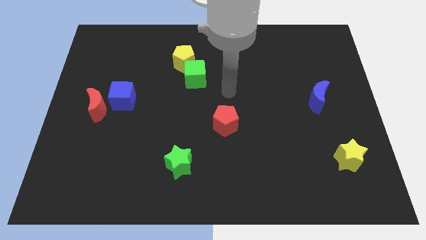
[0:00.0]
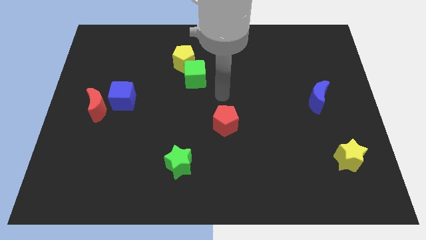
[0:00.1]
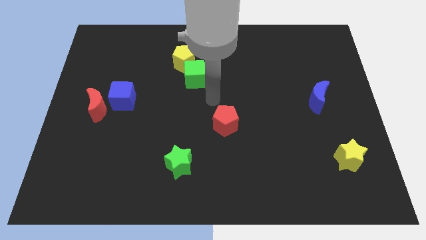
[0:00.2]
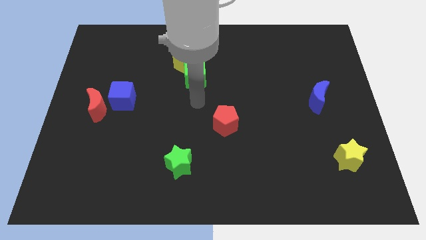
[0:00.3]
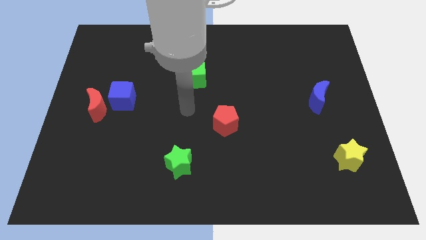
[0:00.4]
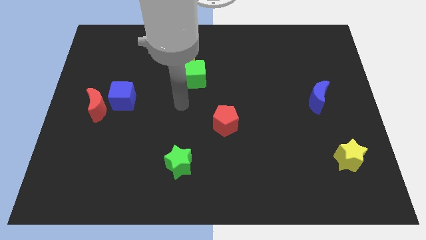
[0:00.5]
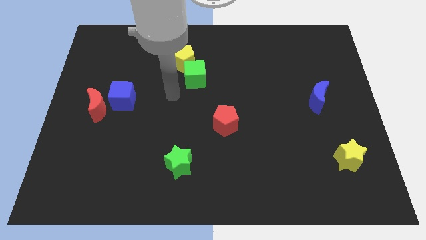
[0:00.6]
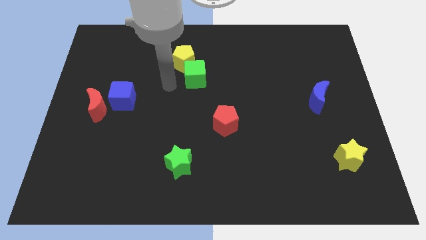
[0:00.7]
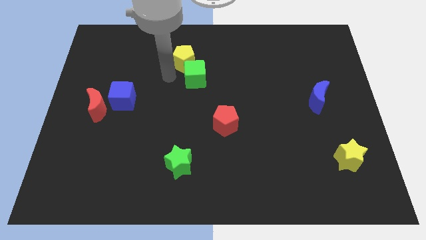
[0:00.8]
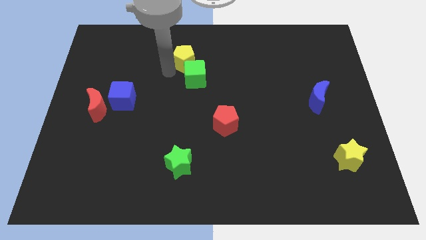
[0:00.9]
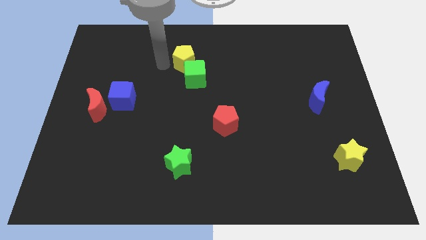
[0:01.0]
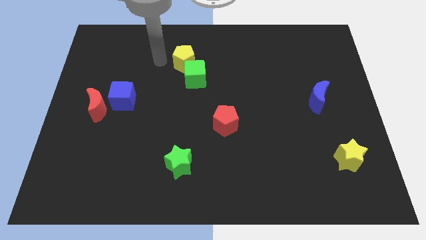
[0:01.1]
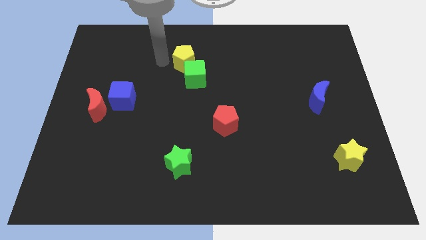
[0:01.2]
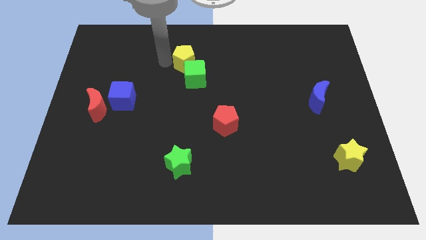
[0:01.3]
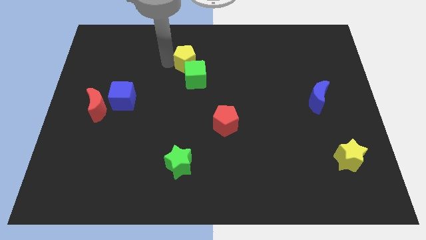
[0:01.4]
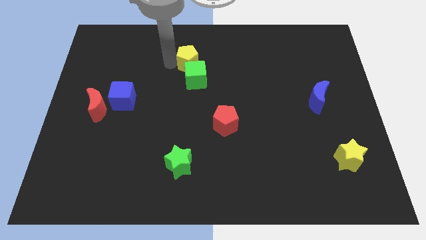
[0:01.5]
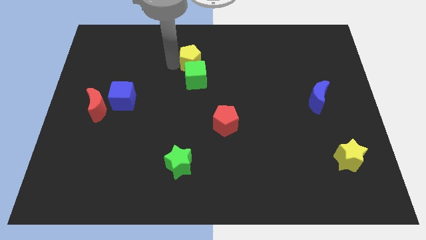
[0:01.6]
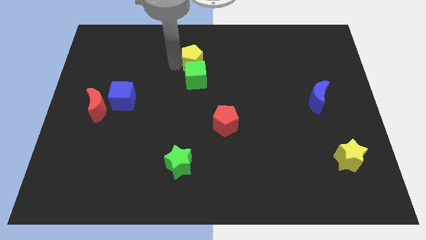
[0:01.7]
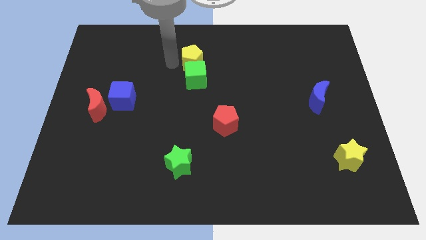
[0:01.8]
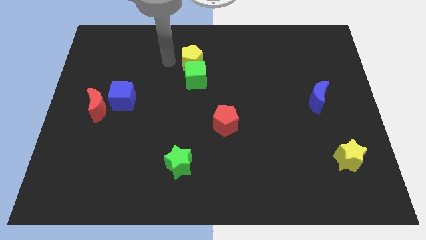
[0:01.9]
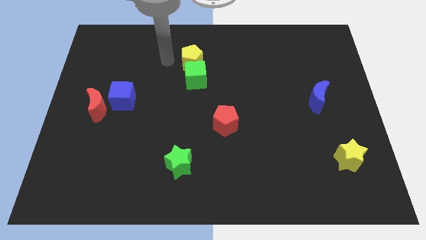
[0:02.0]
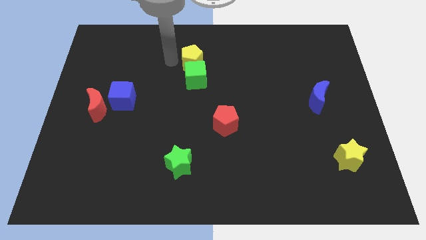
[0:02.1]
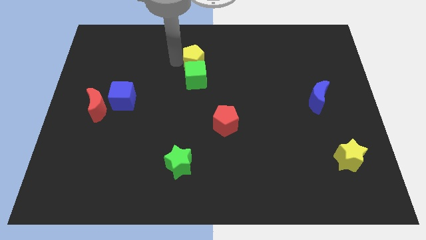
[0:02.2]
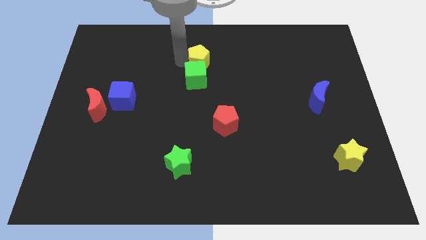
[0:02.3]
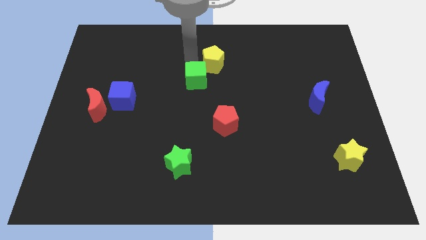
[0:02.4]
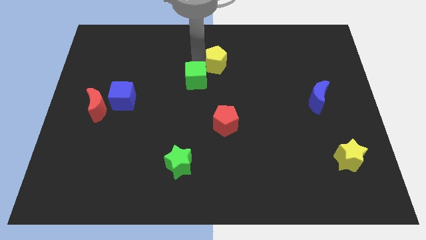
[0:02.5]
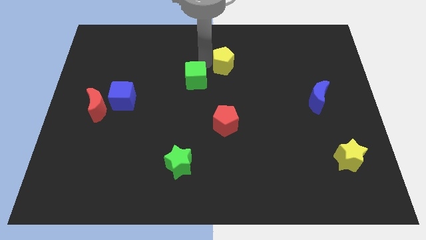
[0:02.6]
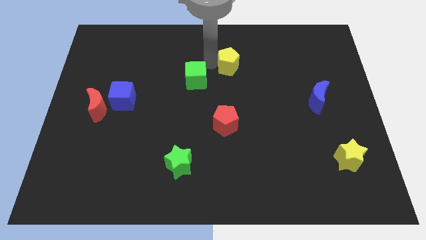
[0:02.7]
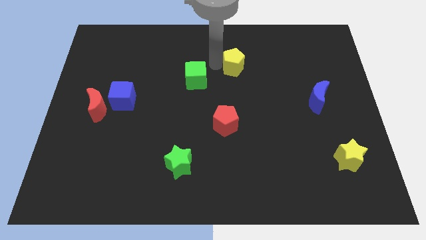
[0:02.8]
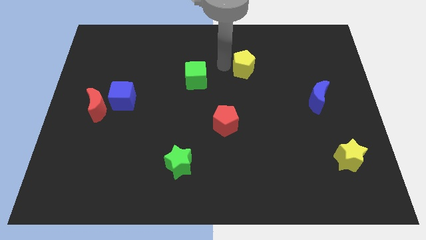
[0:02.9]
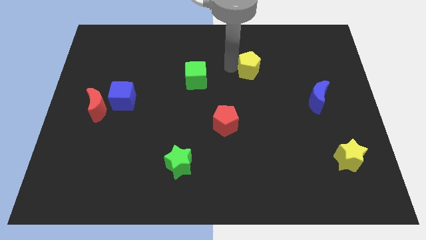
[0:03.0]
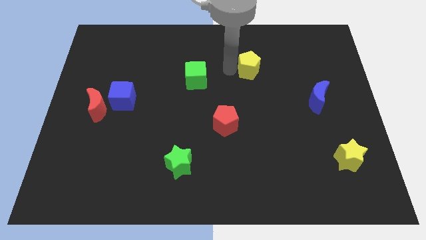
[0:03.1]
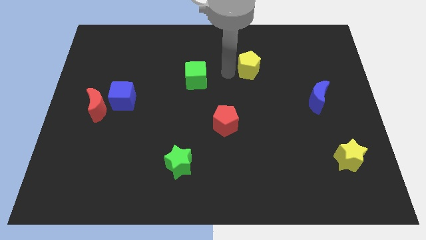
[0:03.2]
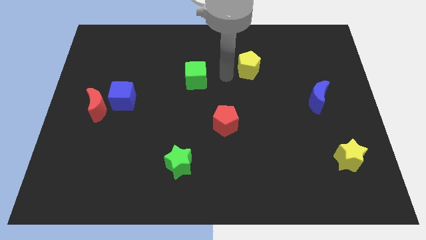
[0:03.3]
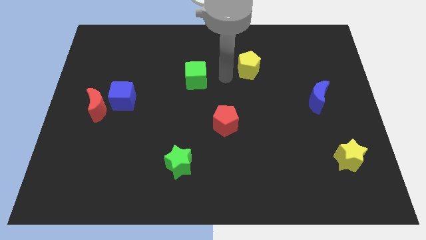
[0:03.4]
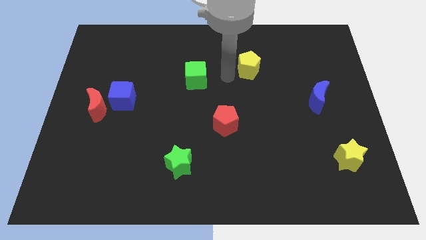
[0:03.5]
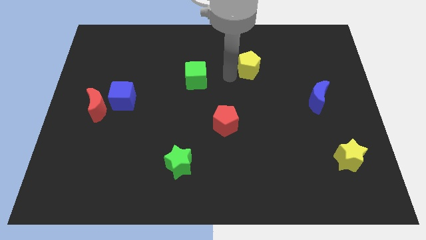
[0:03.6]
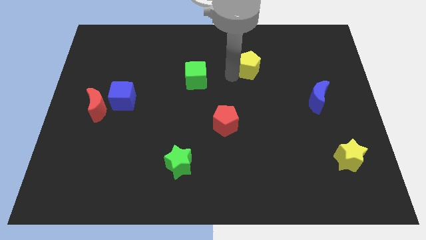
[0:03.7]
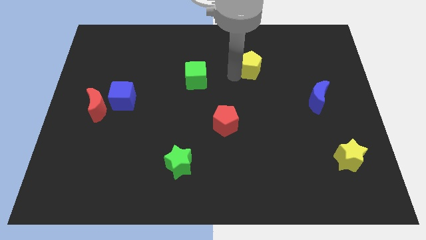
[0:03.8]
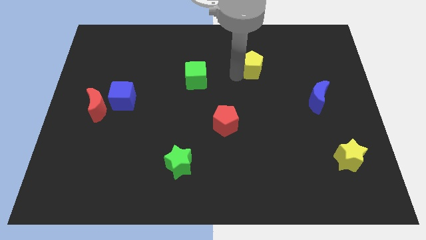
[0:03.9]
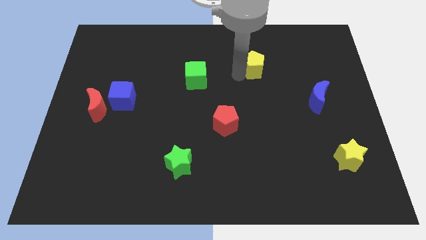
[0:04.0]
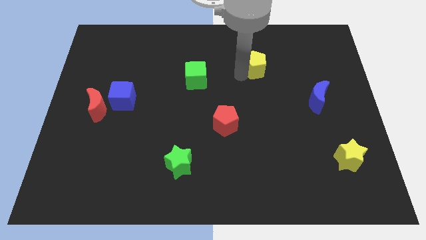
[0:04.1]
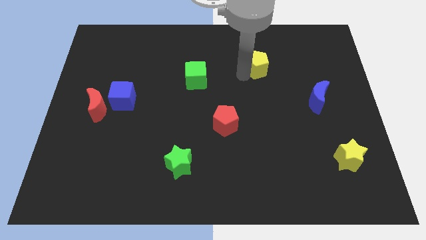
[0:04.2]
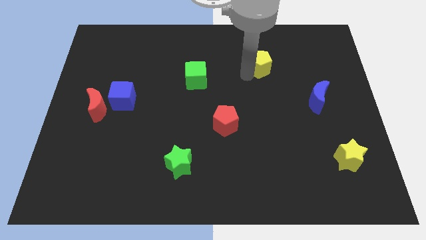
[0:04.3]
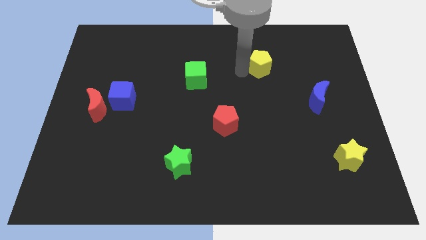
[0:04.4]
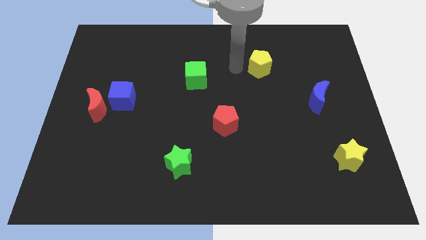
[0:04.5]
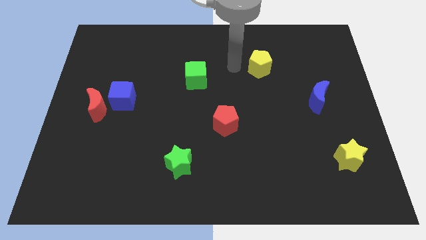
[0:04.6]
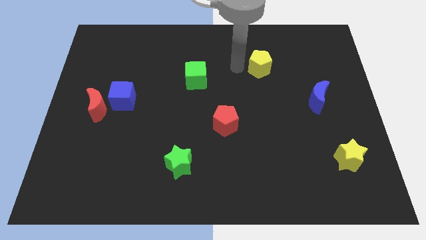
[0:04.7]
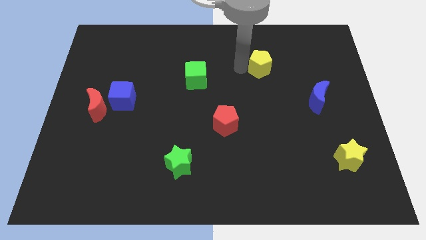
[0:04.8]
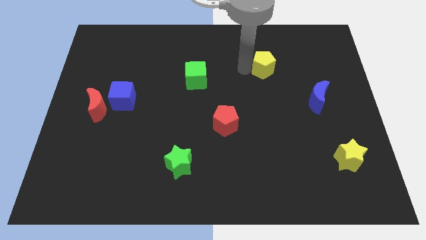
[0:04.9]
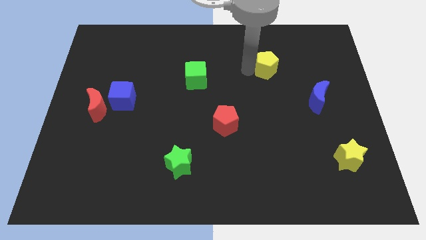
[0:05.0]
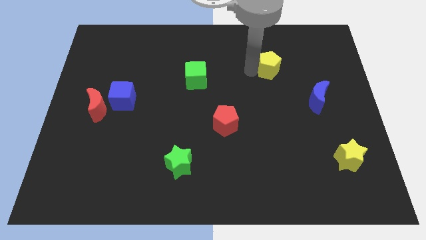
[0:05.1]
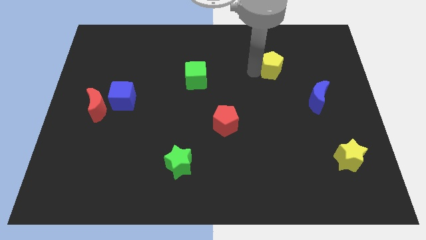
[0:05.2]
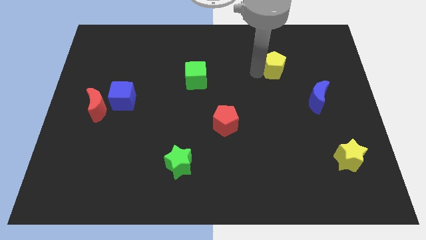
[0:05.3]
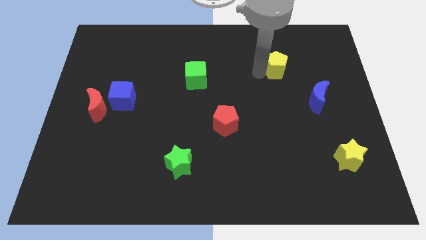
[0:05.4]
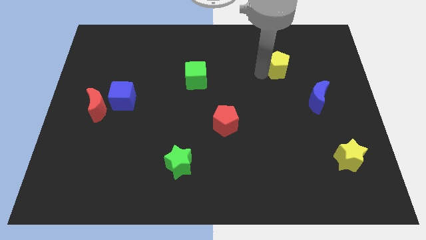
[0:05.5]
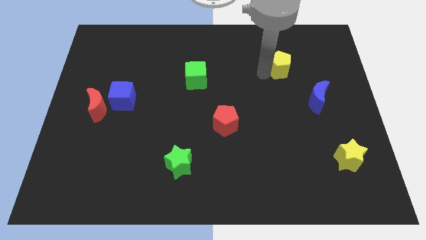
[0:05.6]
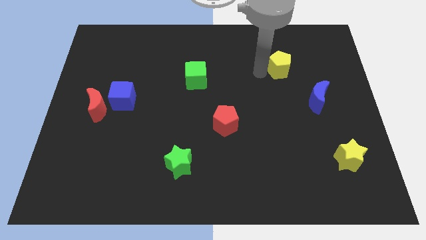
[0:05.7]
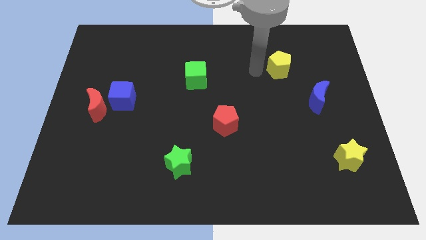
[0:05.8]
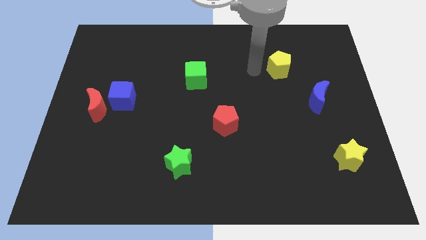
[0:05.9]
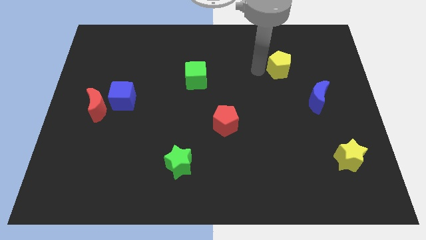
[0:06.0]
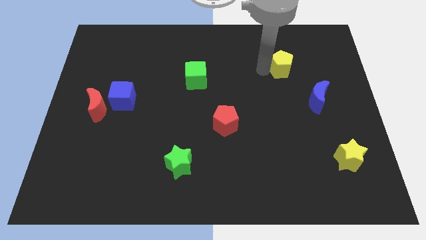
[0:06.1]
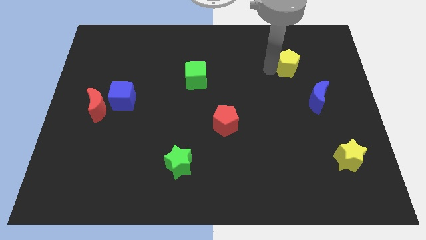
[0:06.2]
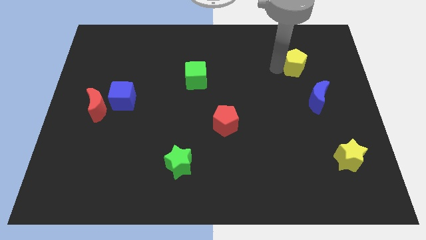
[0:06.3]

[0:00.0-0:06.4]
move the yellow pentagon to the top side of the blue moon

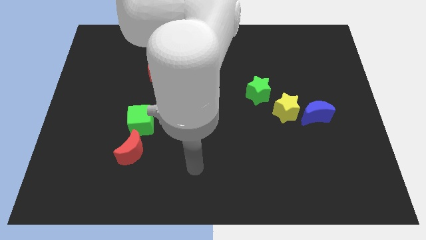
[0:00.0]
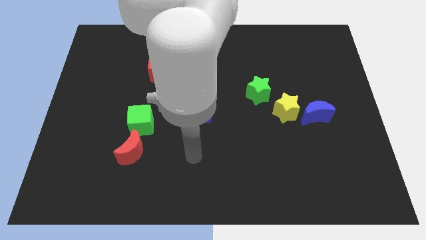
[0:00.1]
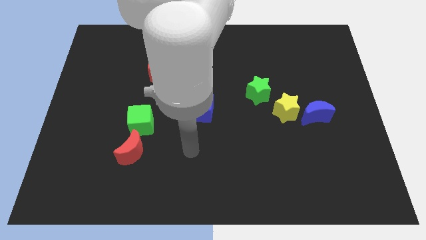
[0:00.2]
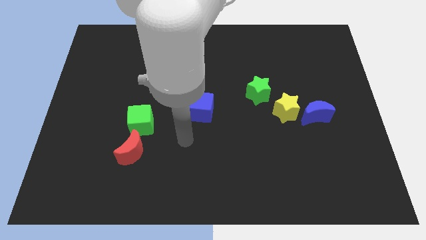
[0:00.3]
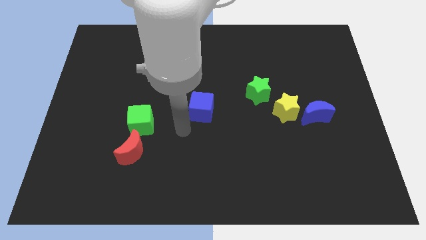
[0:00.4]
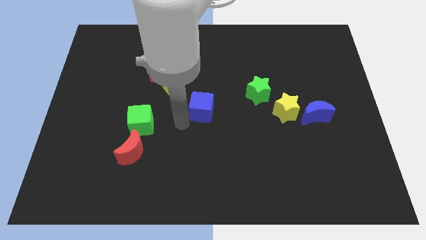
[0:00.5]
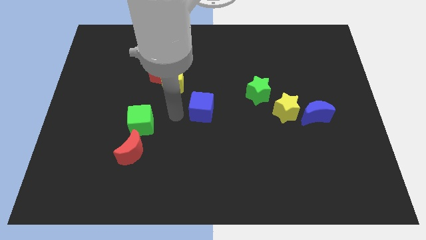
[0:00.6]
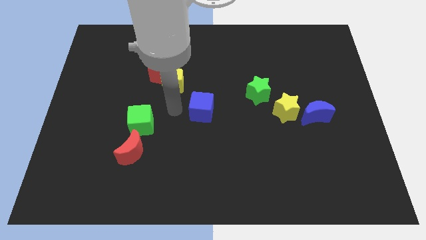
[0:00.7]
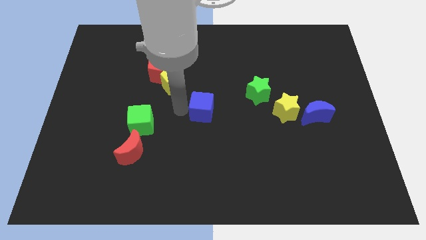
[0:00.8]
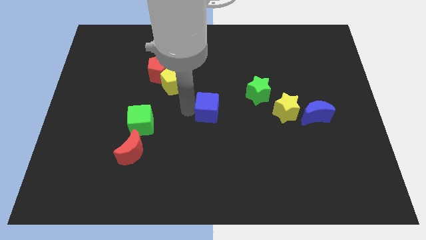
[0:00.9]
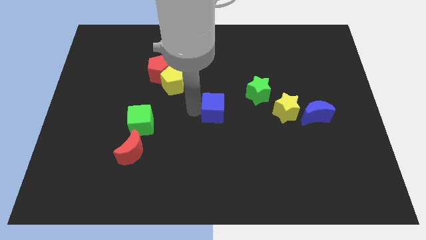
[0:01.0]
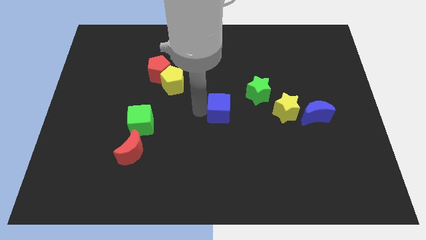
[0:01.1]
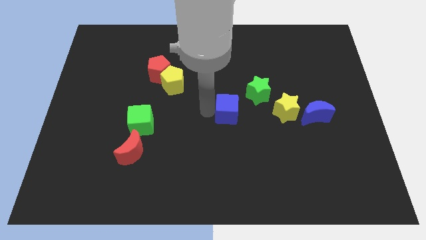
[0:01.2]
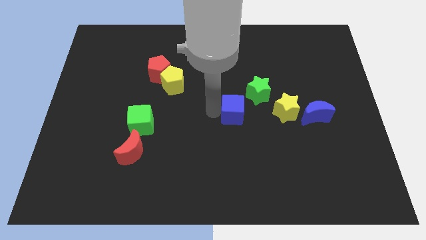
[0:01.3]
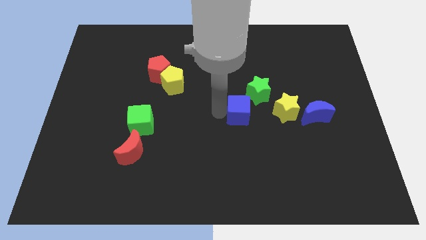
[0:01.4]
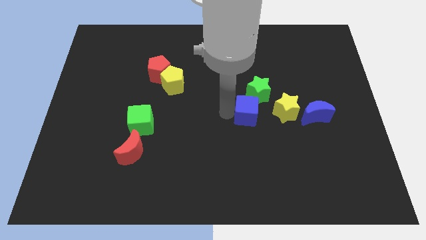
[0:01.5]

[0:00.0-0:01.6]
move the blue cube just left of the blue moon

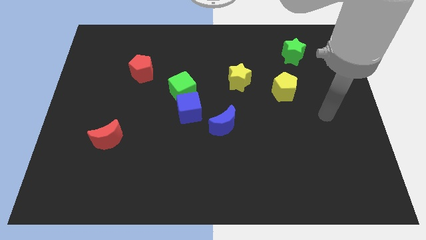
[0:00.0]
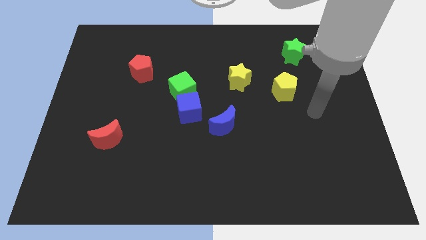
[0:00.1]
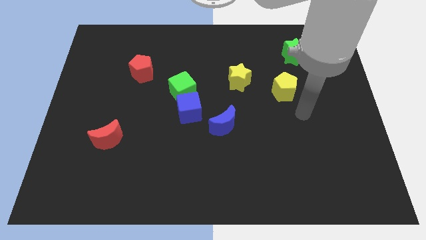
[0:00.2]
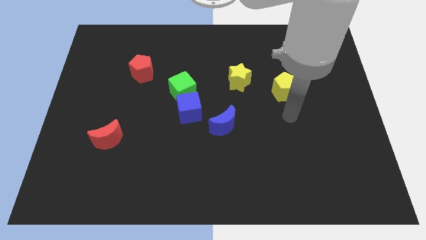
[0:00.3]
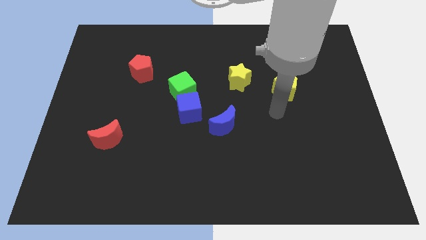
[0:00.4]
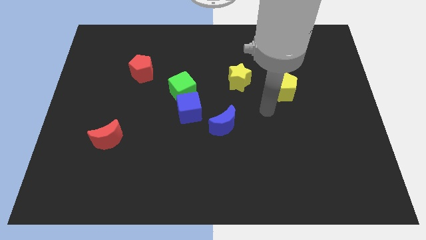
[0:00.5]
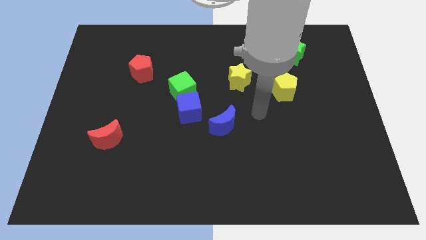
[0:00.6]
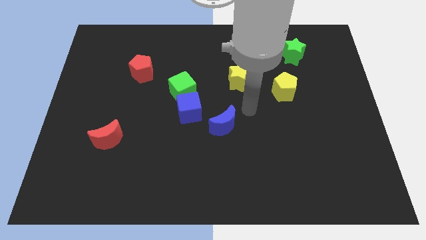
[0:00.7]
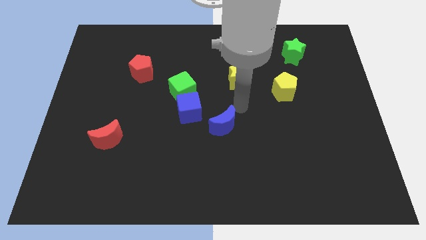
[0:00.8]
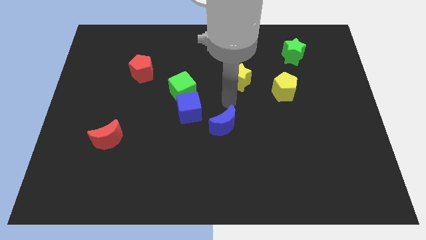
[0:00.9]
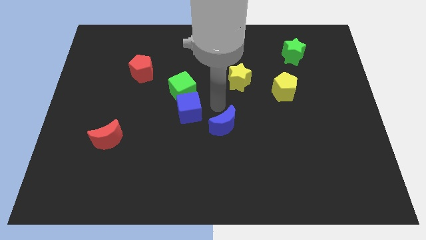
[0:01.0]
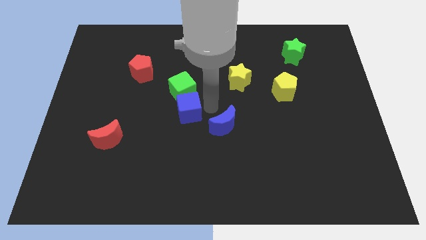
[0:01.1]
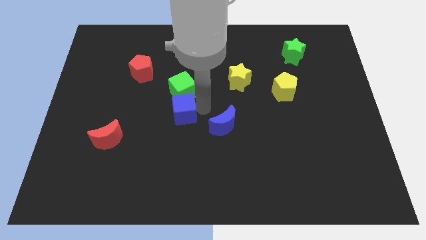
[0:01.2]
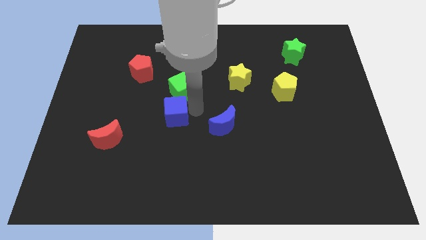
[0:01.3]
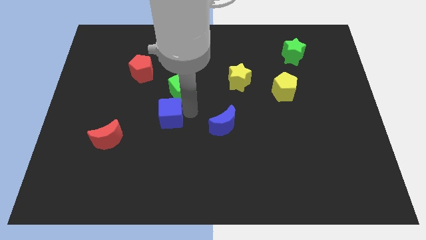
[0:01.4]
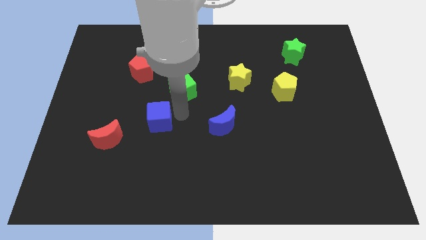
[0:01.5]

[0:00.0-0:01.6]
move the blue cube diagonally up and to the right of the red moon
